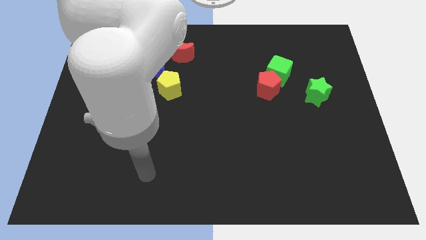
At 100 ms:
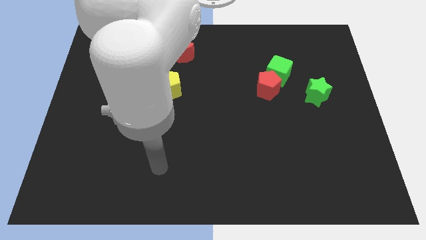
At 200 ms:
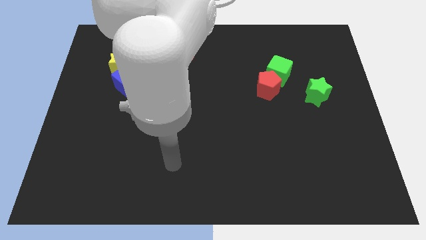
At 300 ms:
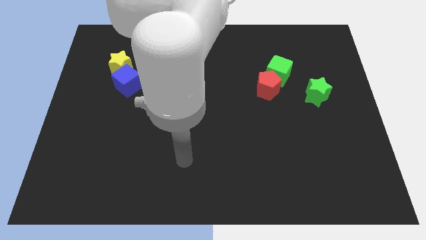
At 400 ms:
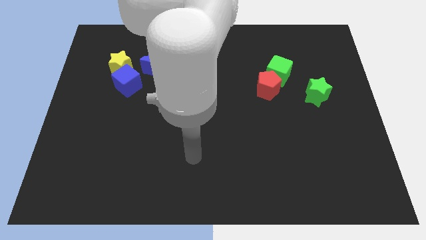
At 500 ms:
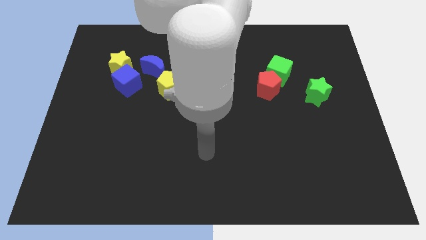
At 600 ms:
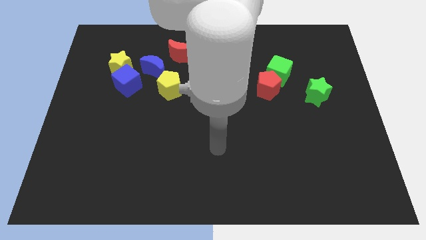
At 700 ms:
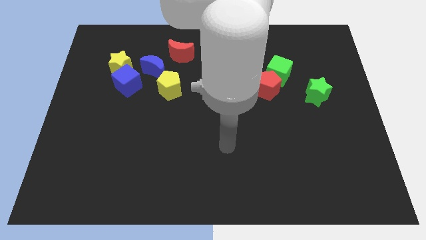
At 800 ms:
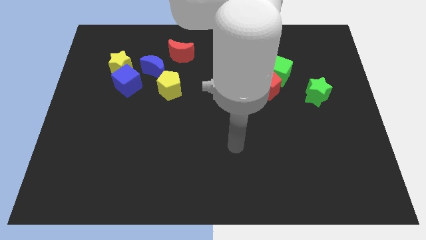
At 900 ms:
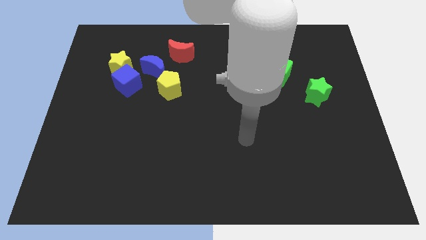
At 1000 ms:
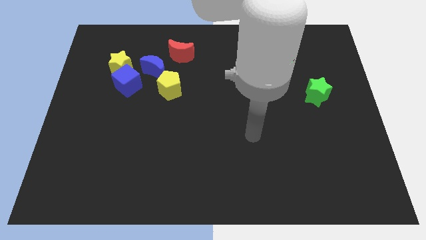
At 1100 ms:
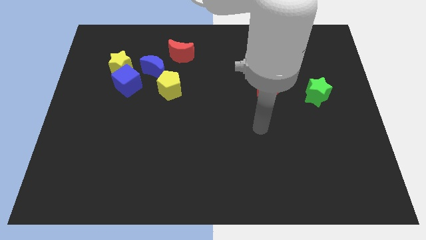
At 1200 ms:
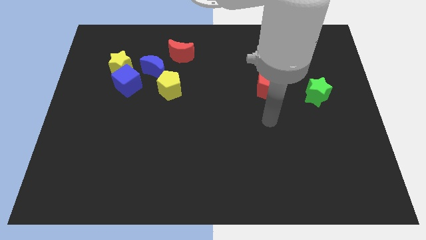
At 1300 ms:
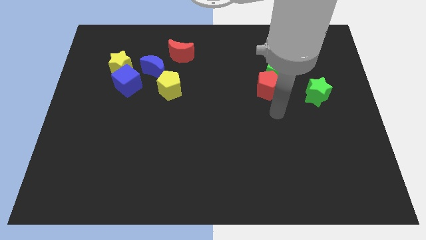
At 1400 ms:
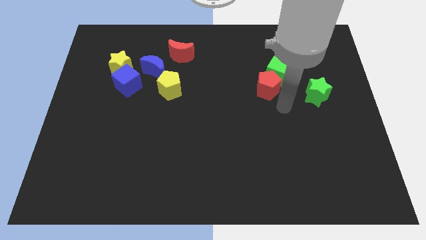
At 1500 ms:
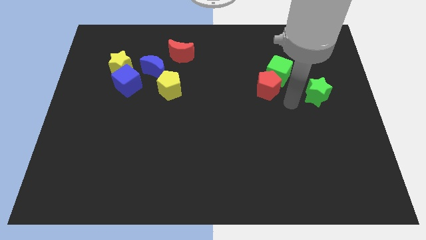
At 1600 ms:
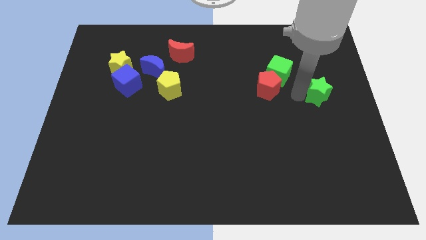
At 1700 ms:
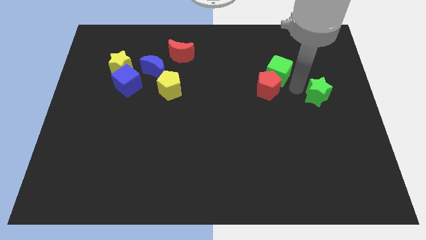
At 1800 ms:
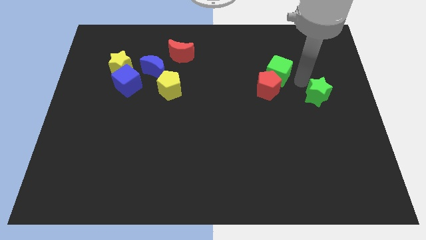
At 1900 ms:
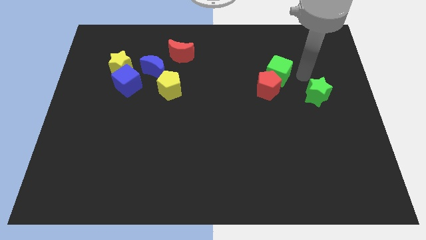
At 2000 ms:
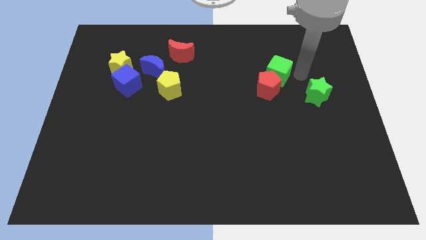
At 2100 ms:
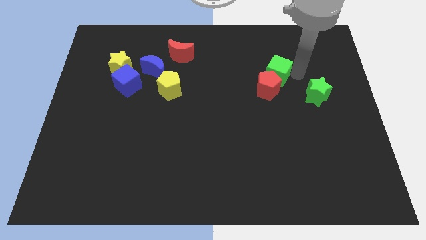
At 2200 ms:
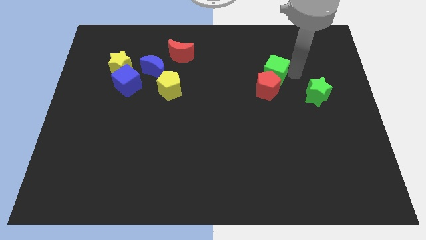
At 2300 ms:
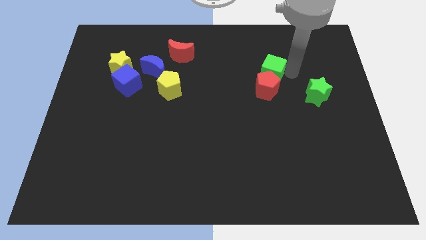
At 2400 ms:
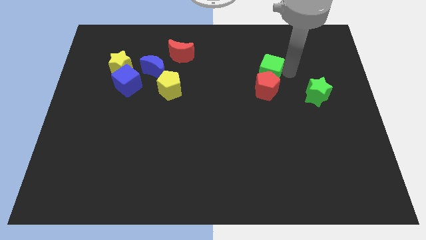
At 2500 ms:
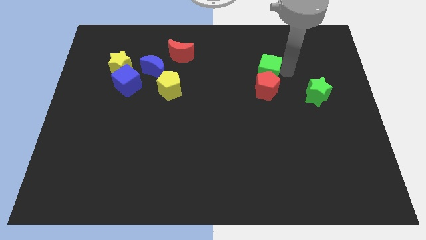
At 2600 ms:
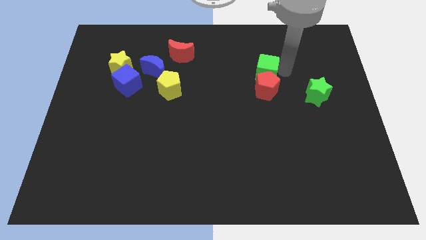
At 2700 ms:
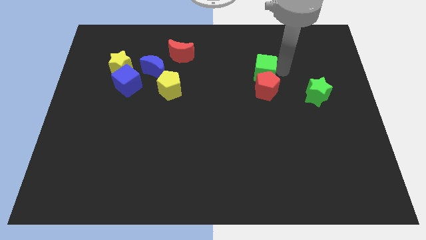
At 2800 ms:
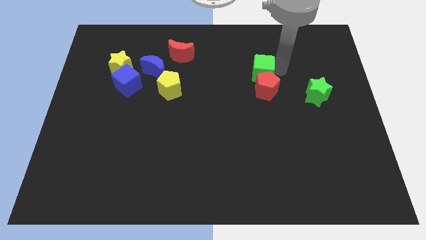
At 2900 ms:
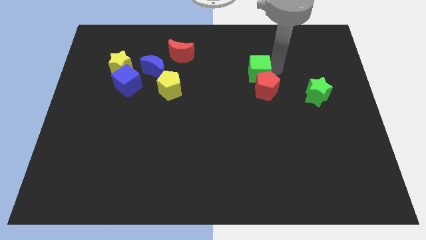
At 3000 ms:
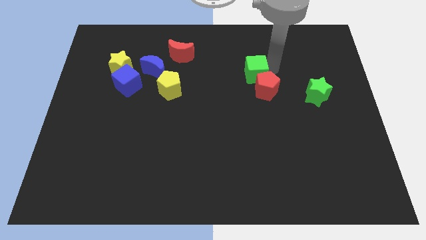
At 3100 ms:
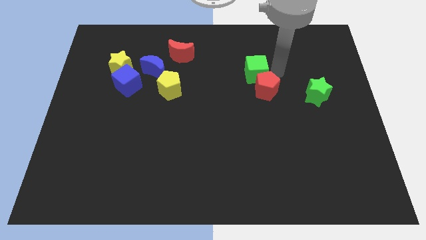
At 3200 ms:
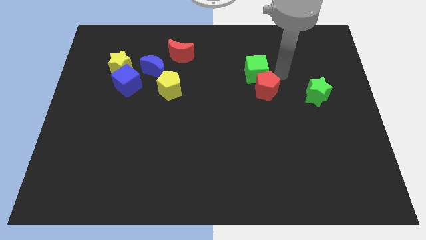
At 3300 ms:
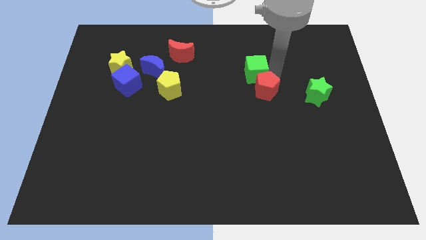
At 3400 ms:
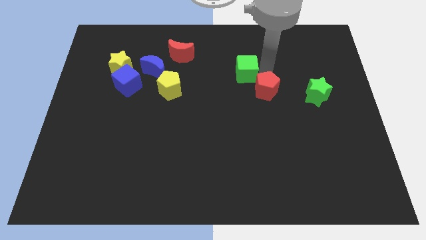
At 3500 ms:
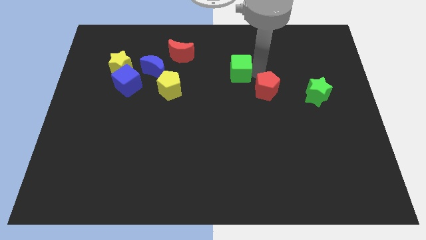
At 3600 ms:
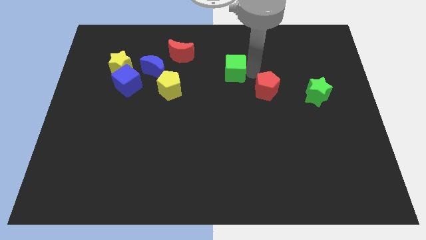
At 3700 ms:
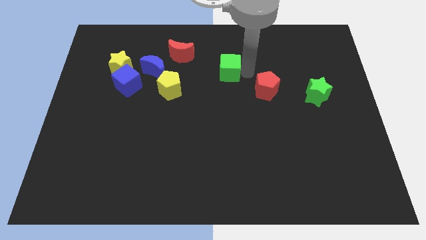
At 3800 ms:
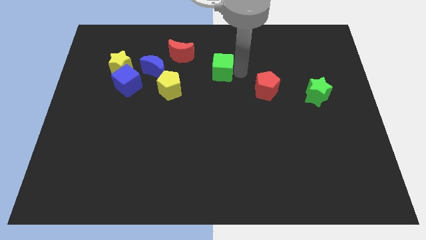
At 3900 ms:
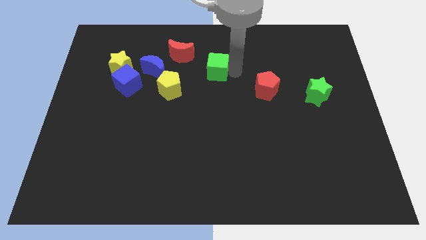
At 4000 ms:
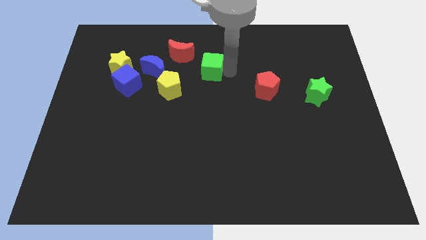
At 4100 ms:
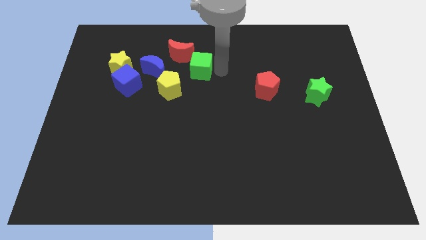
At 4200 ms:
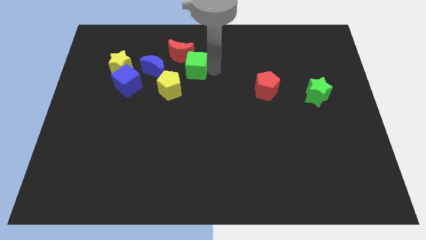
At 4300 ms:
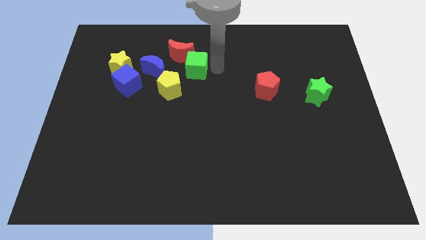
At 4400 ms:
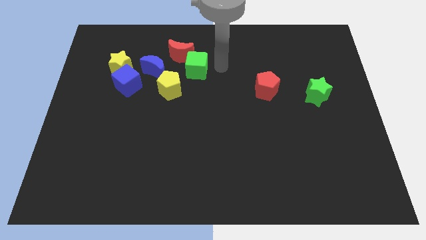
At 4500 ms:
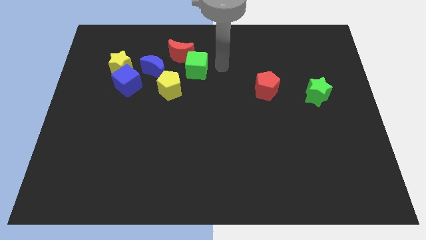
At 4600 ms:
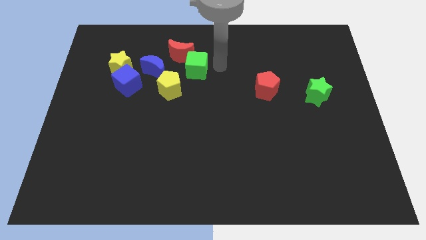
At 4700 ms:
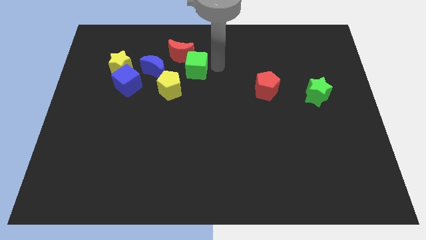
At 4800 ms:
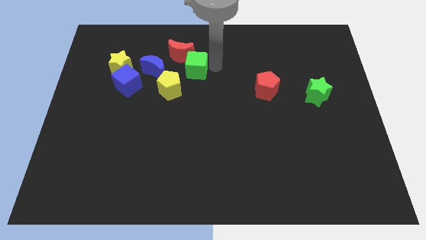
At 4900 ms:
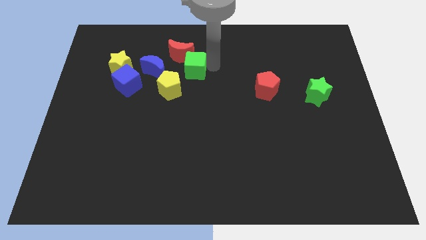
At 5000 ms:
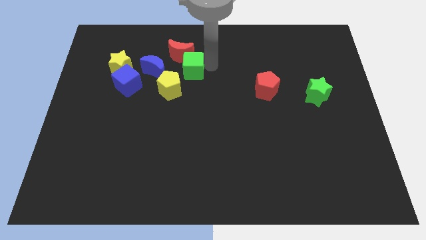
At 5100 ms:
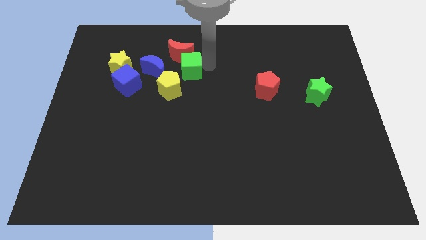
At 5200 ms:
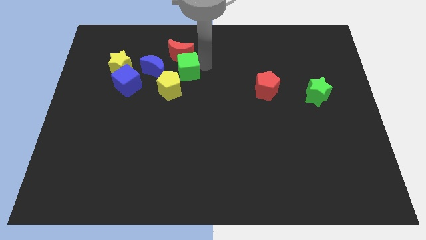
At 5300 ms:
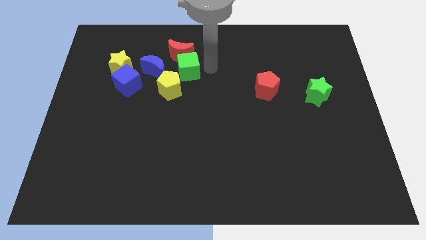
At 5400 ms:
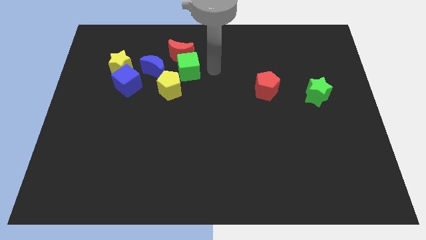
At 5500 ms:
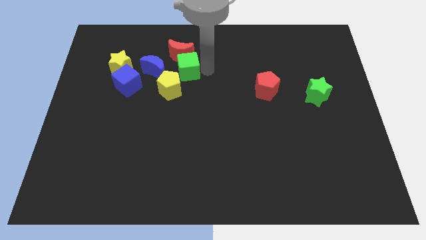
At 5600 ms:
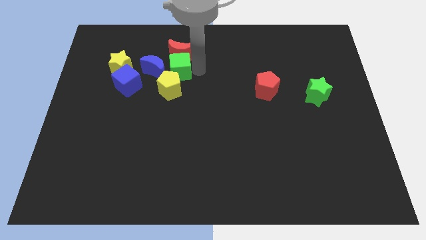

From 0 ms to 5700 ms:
push the green cube towards the blue moon

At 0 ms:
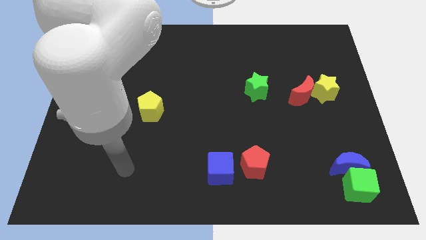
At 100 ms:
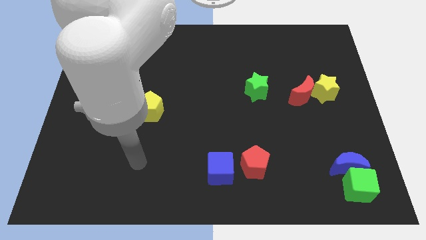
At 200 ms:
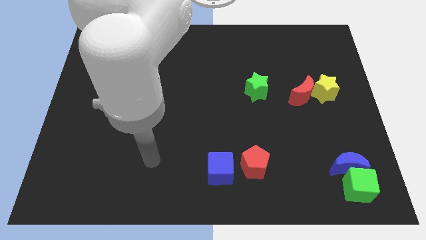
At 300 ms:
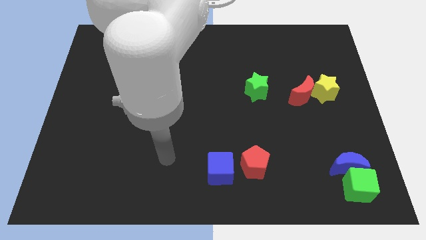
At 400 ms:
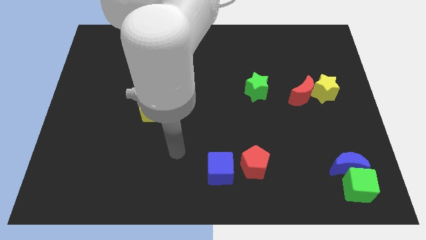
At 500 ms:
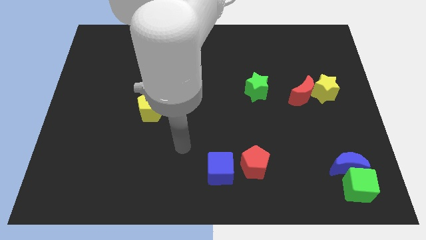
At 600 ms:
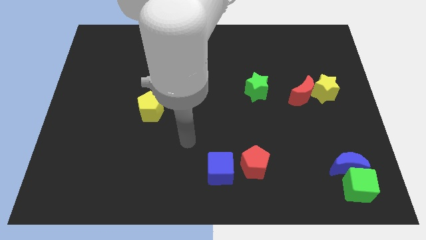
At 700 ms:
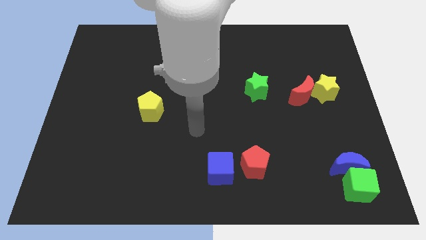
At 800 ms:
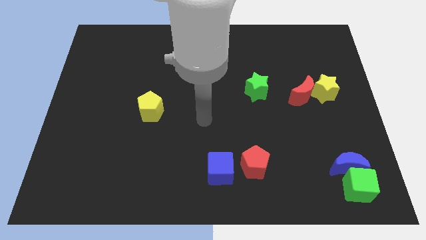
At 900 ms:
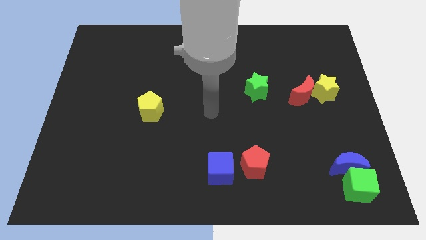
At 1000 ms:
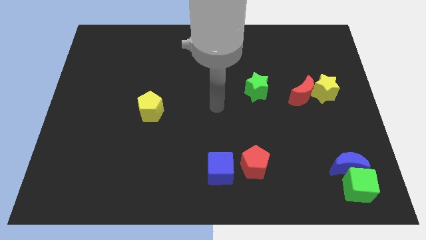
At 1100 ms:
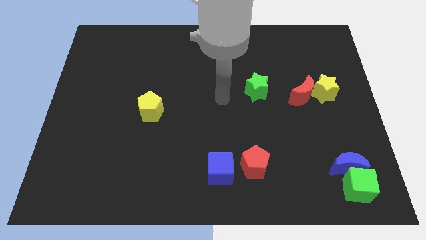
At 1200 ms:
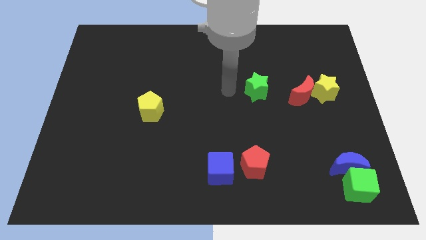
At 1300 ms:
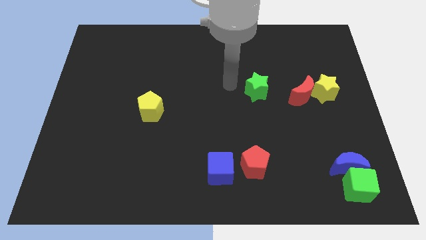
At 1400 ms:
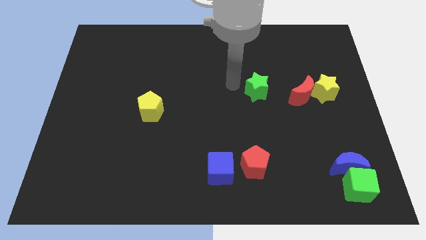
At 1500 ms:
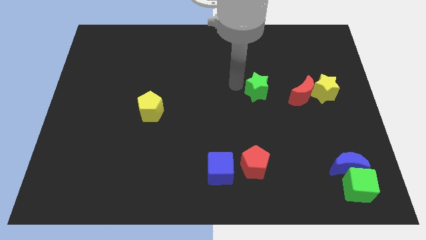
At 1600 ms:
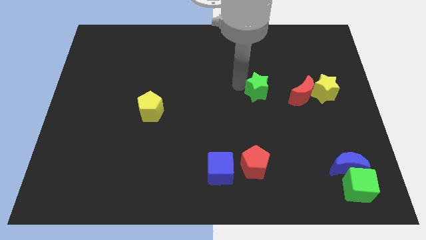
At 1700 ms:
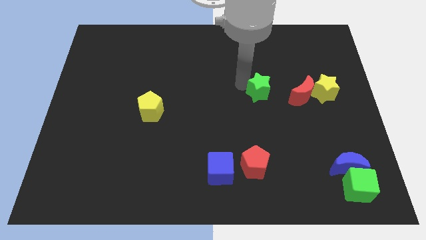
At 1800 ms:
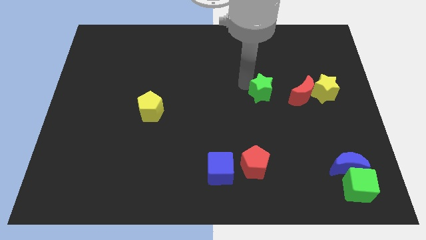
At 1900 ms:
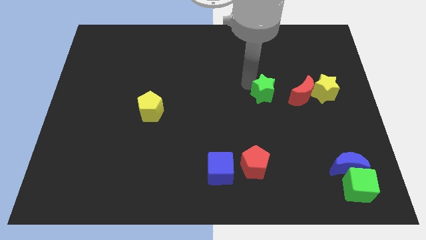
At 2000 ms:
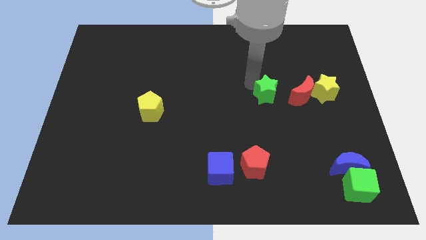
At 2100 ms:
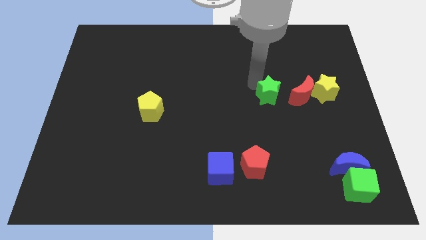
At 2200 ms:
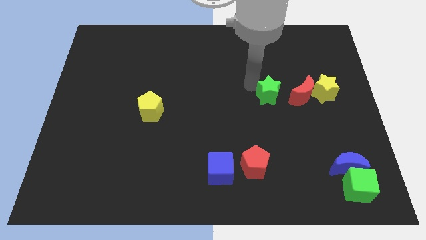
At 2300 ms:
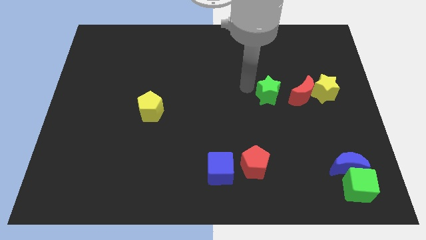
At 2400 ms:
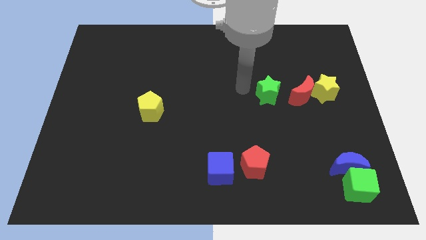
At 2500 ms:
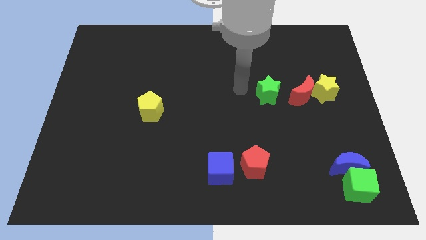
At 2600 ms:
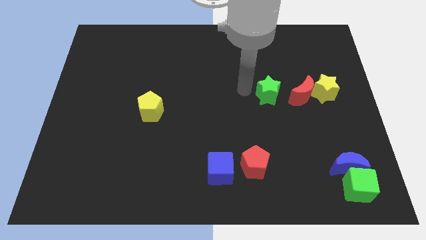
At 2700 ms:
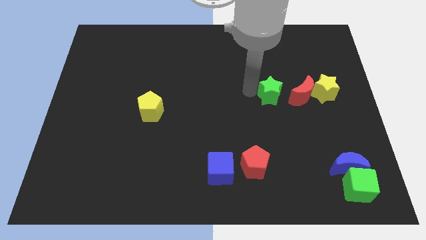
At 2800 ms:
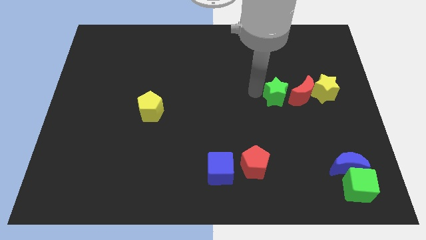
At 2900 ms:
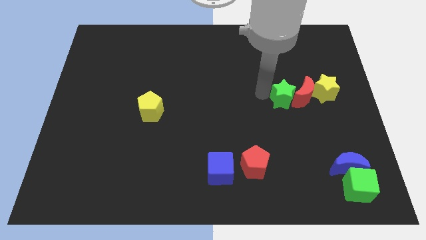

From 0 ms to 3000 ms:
slide the green star next to the red moon
